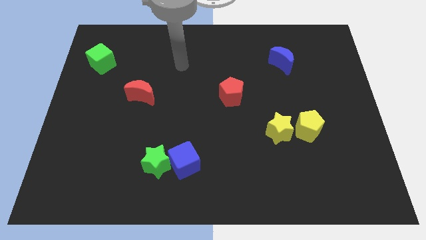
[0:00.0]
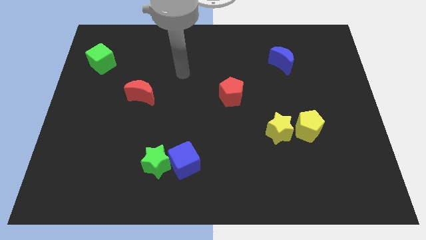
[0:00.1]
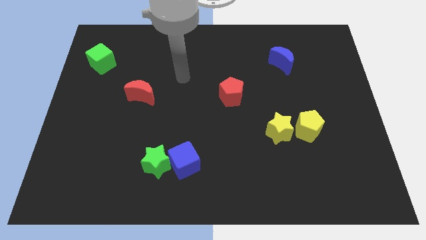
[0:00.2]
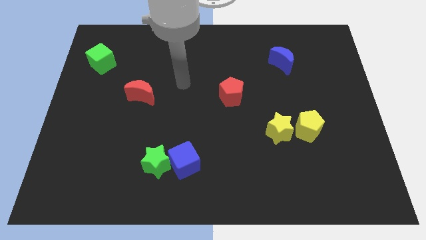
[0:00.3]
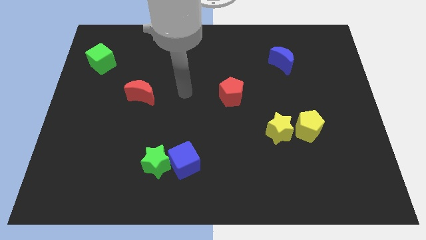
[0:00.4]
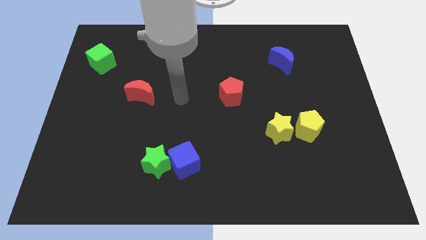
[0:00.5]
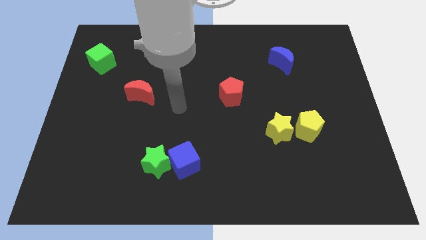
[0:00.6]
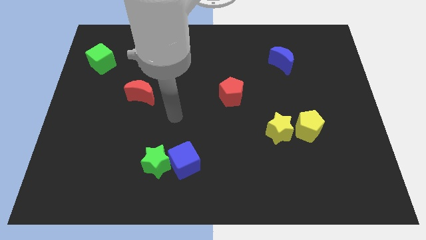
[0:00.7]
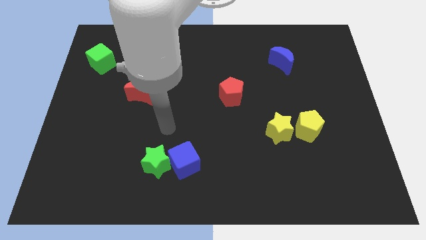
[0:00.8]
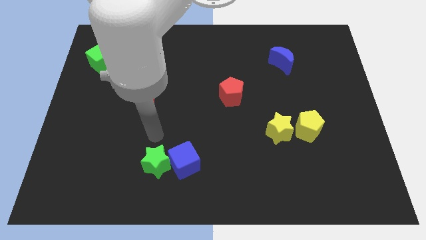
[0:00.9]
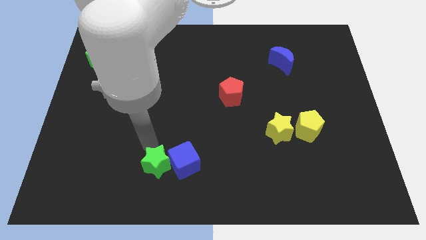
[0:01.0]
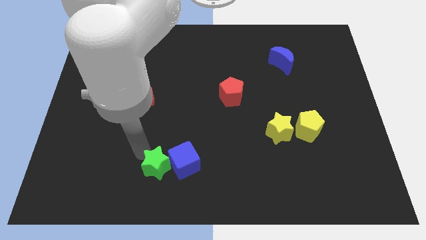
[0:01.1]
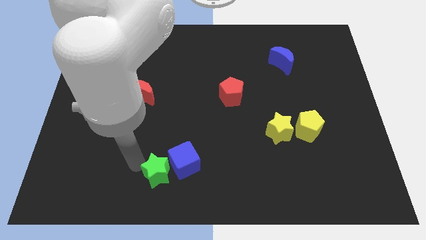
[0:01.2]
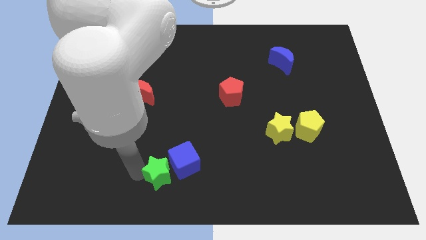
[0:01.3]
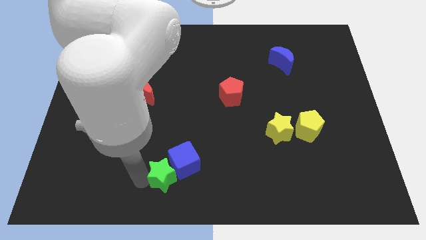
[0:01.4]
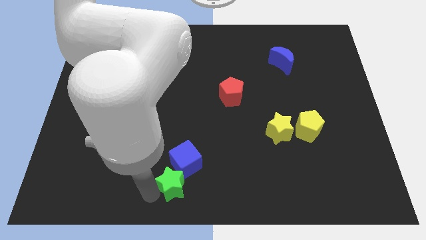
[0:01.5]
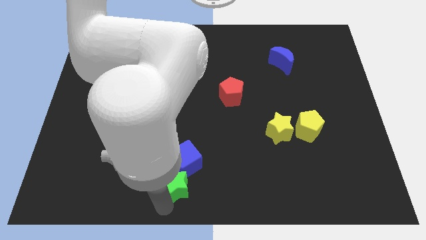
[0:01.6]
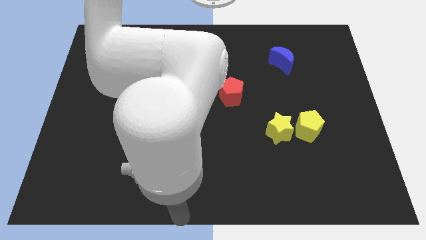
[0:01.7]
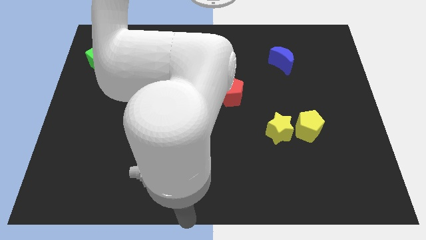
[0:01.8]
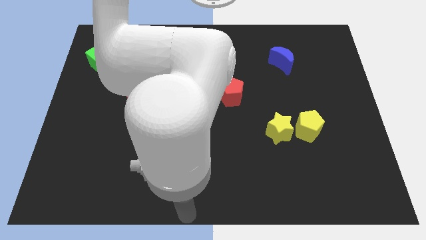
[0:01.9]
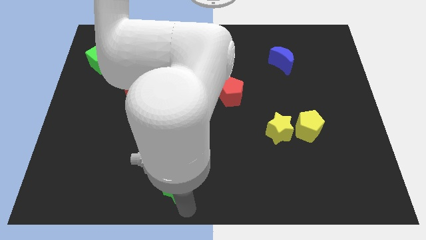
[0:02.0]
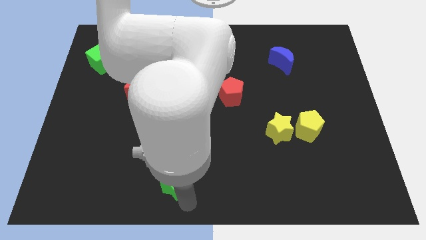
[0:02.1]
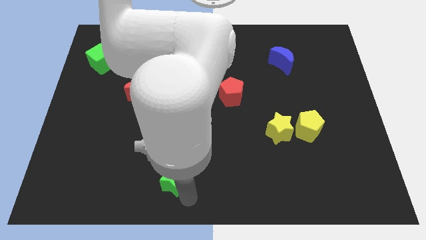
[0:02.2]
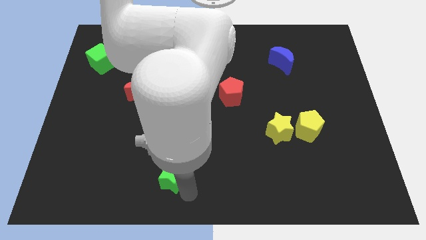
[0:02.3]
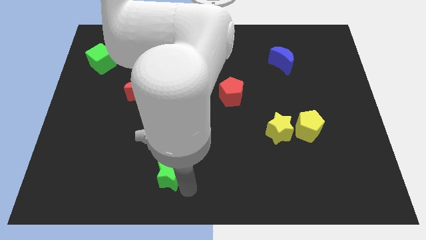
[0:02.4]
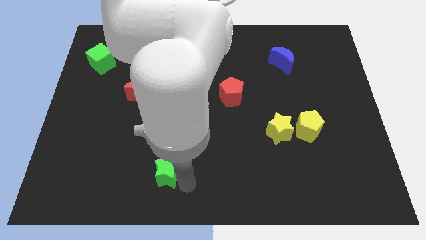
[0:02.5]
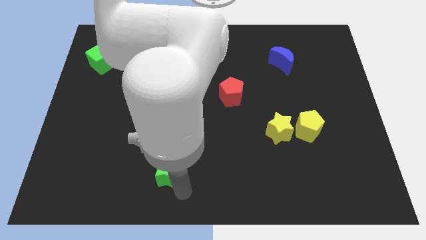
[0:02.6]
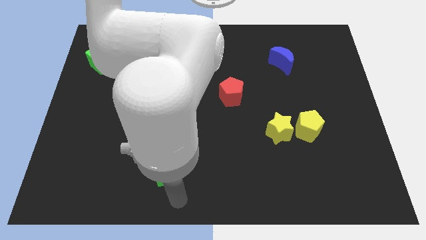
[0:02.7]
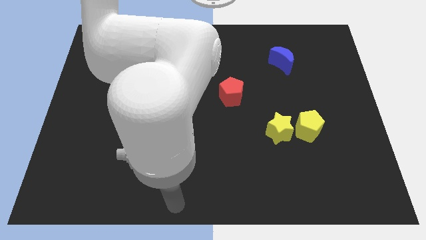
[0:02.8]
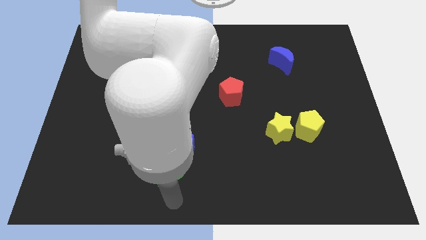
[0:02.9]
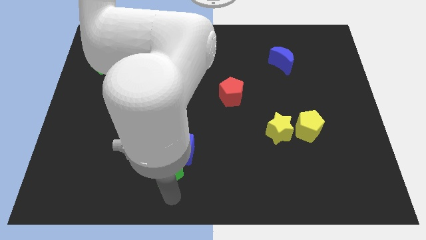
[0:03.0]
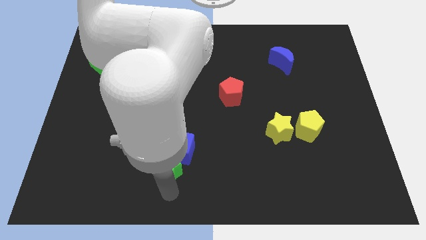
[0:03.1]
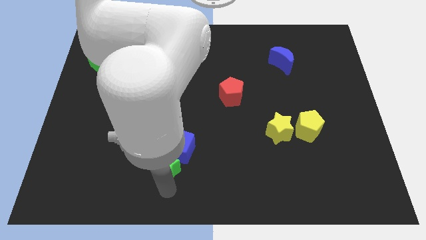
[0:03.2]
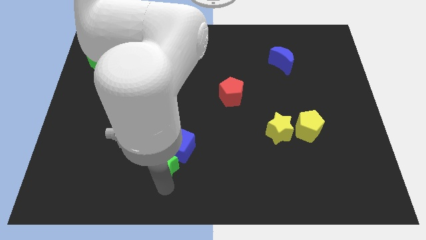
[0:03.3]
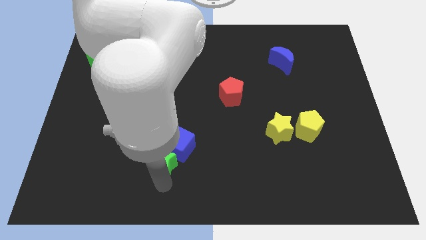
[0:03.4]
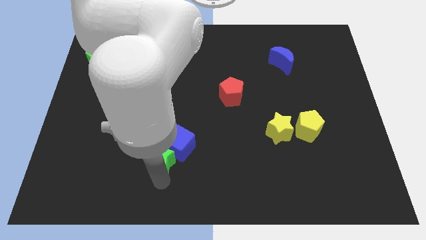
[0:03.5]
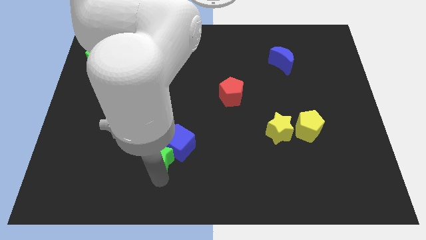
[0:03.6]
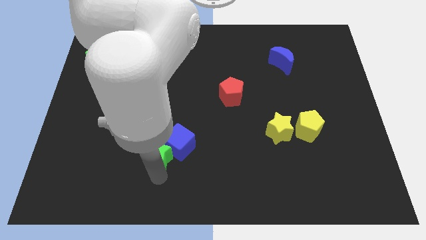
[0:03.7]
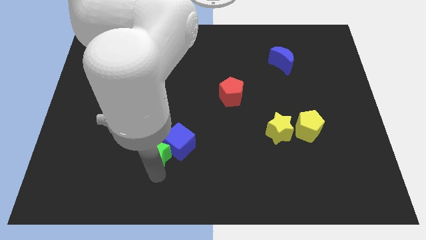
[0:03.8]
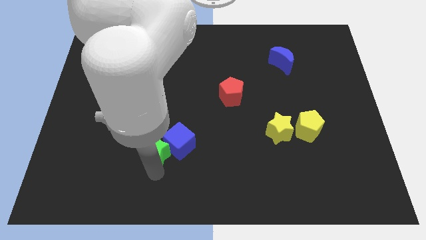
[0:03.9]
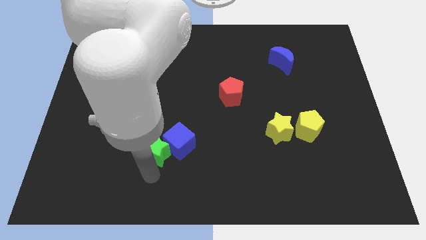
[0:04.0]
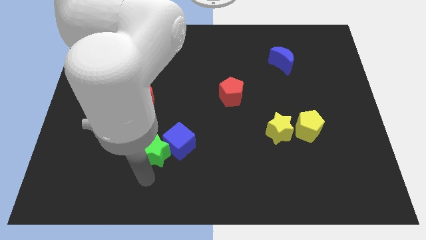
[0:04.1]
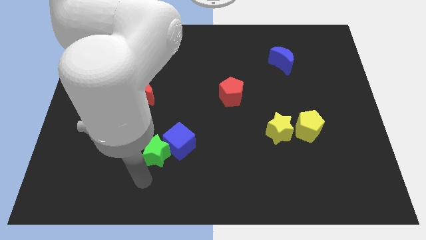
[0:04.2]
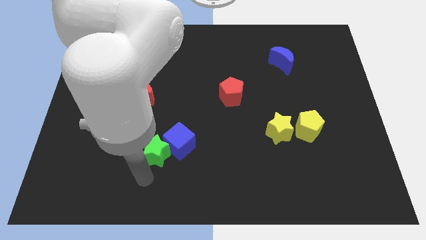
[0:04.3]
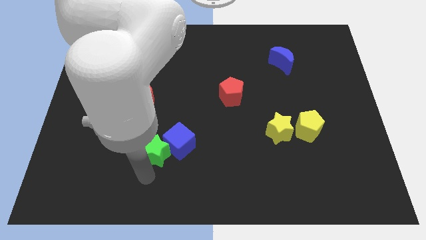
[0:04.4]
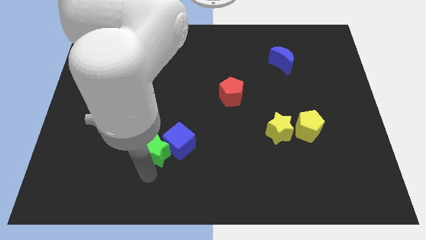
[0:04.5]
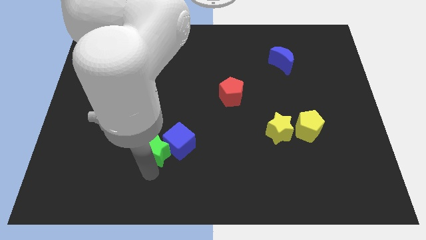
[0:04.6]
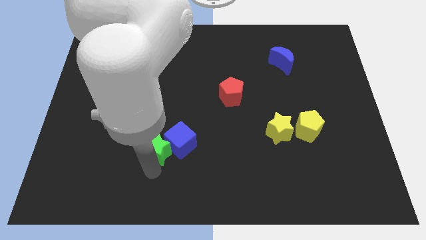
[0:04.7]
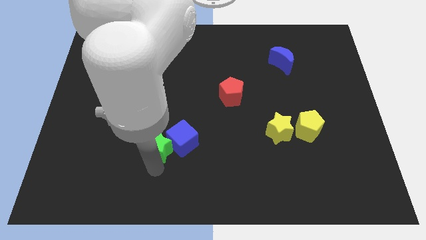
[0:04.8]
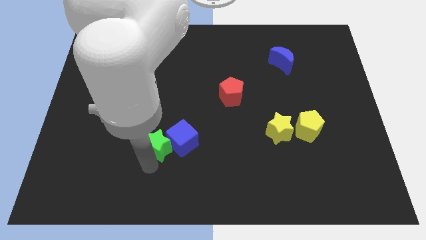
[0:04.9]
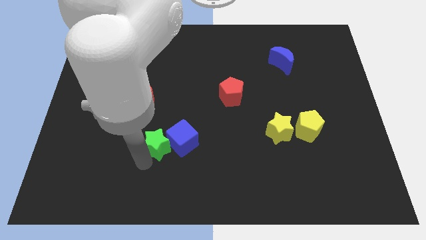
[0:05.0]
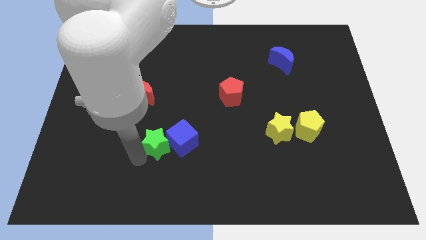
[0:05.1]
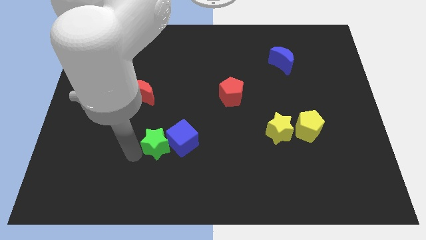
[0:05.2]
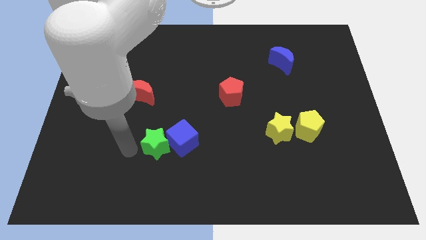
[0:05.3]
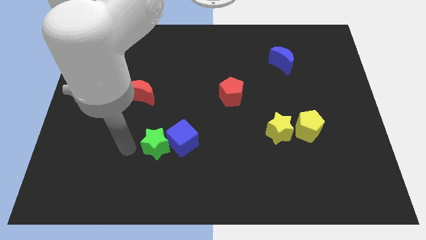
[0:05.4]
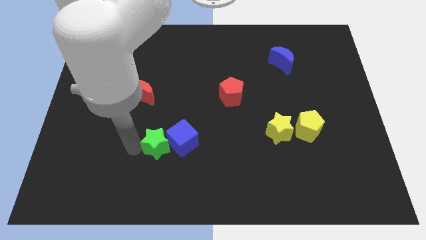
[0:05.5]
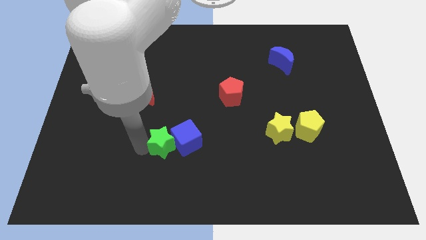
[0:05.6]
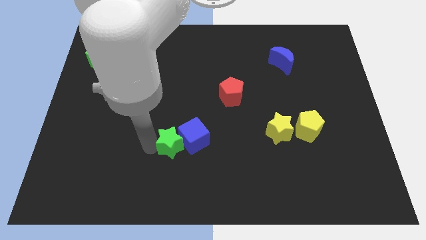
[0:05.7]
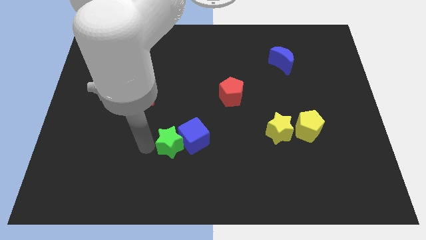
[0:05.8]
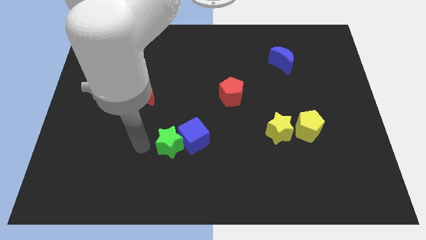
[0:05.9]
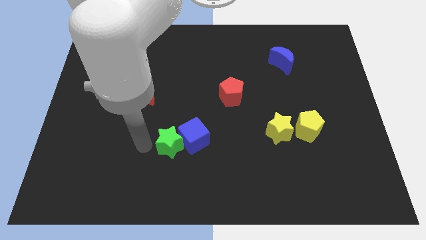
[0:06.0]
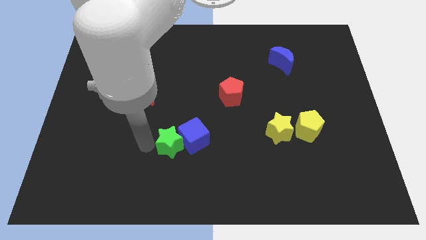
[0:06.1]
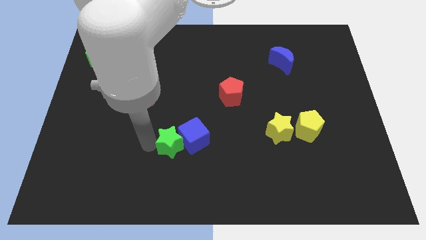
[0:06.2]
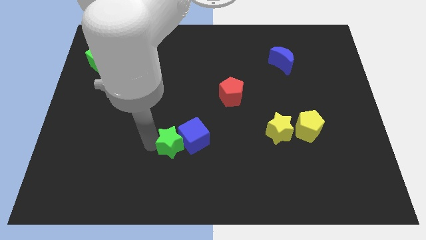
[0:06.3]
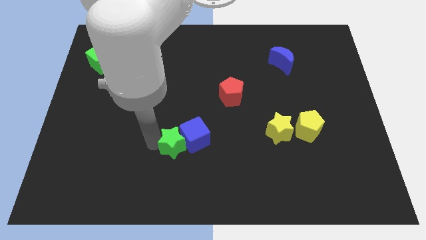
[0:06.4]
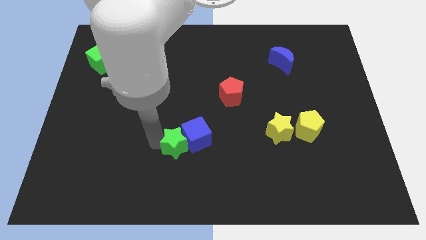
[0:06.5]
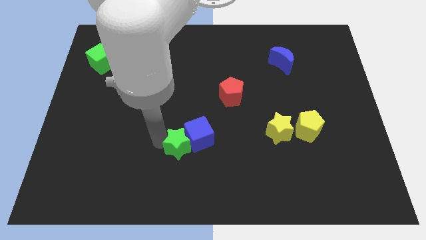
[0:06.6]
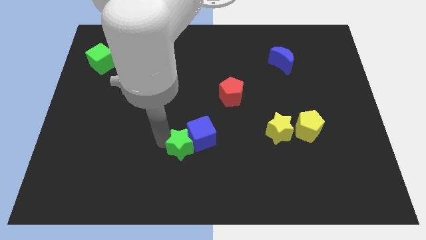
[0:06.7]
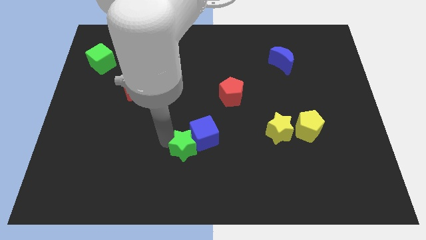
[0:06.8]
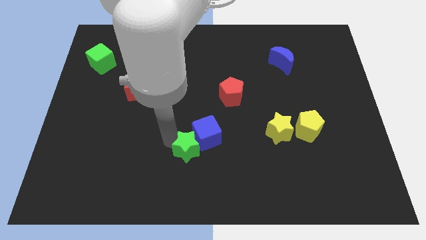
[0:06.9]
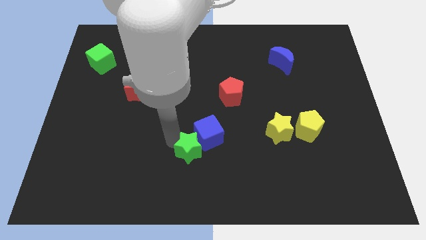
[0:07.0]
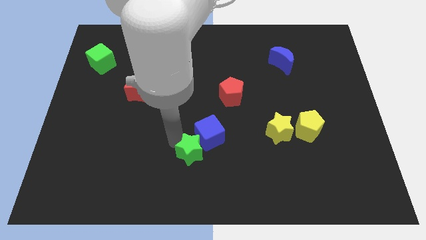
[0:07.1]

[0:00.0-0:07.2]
slightly move the green star to the right

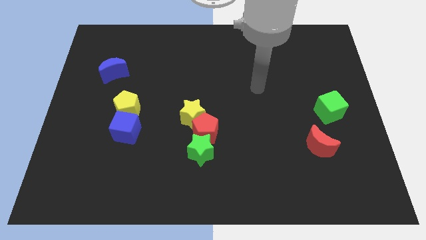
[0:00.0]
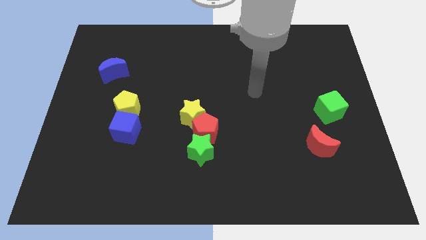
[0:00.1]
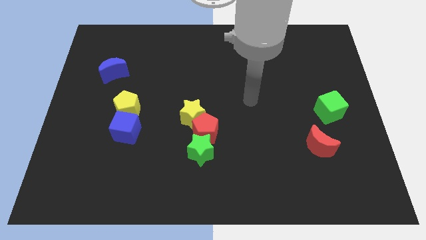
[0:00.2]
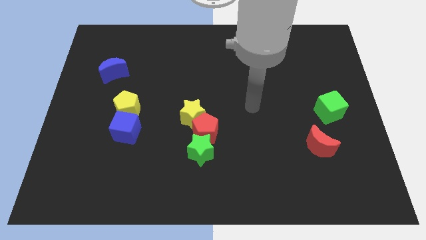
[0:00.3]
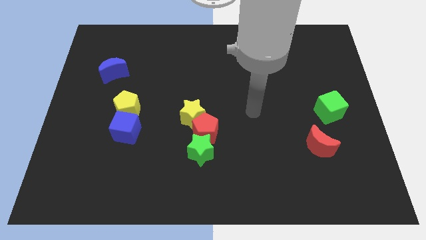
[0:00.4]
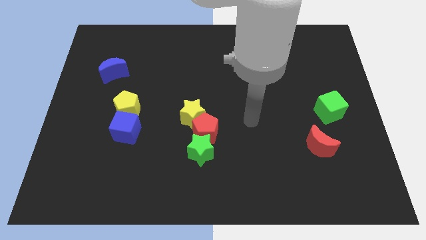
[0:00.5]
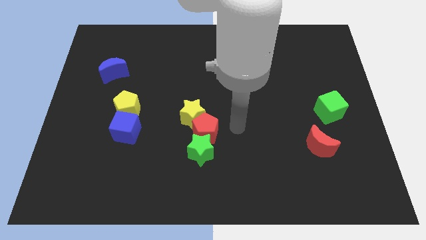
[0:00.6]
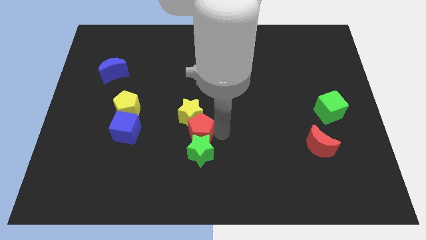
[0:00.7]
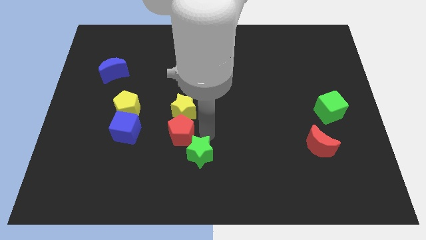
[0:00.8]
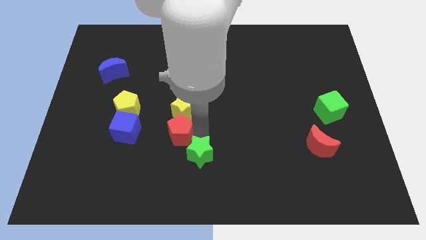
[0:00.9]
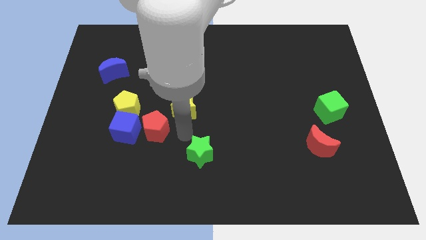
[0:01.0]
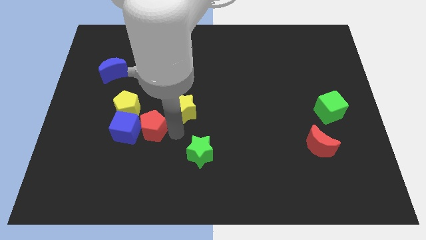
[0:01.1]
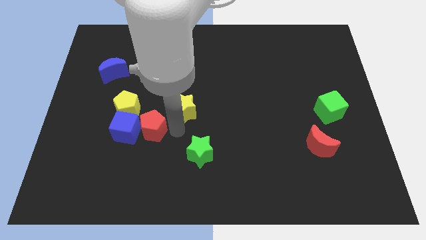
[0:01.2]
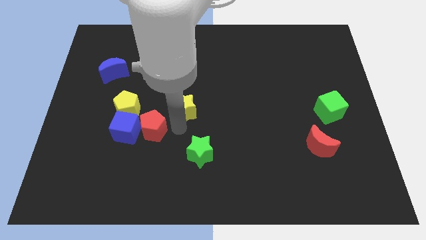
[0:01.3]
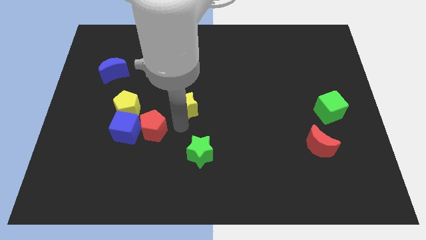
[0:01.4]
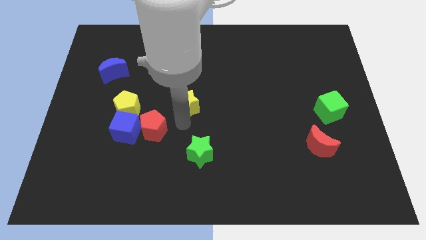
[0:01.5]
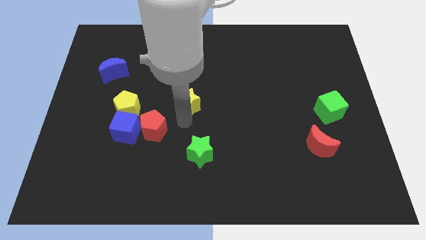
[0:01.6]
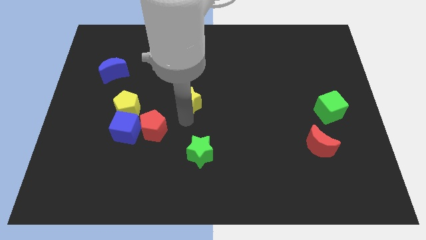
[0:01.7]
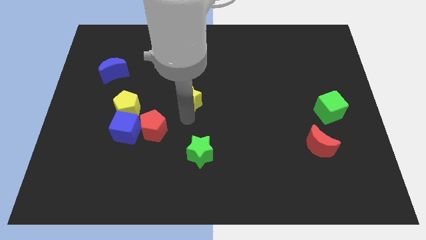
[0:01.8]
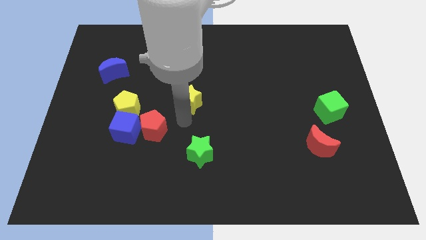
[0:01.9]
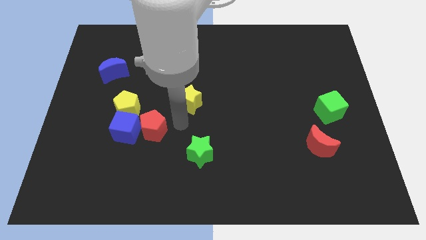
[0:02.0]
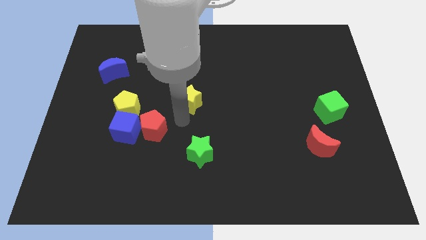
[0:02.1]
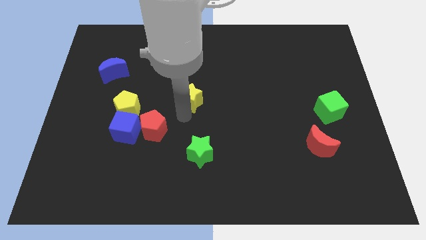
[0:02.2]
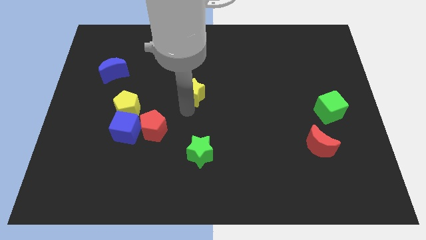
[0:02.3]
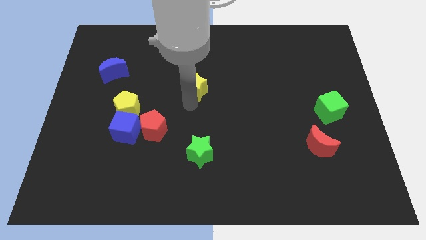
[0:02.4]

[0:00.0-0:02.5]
slide the yellow star a little bit up
